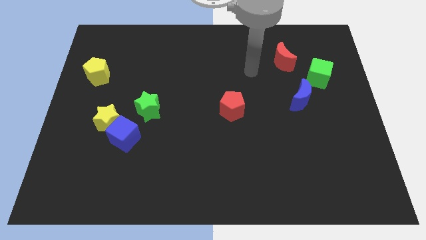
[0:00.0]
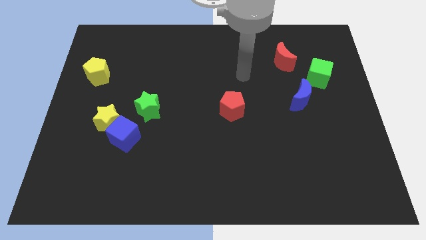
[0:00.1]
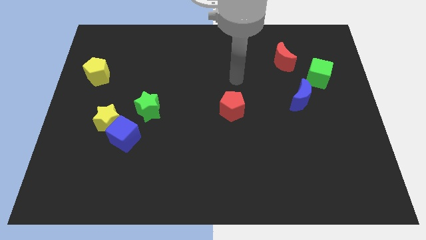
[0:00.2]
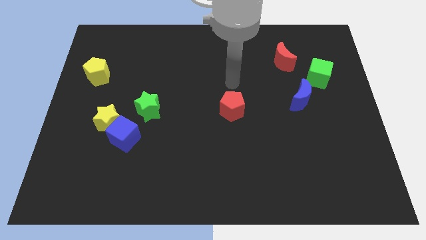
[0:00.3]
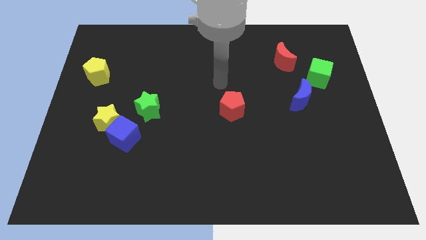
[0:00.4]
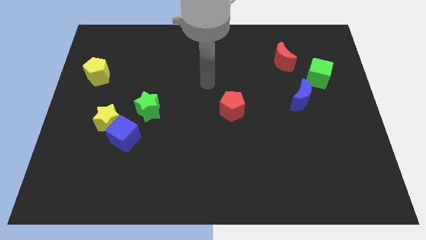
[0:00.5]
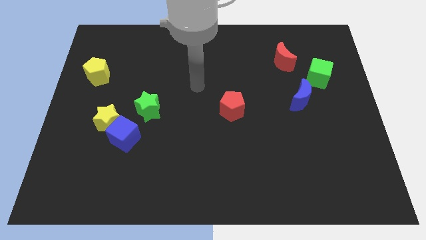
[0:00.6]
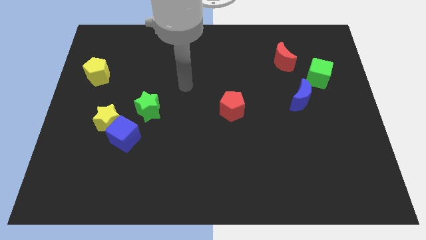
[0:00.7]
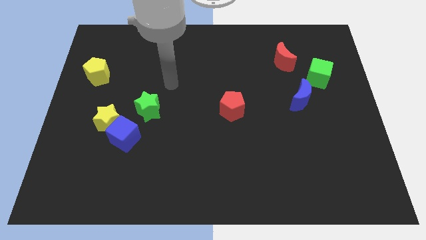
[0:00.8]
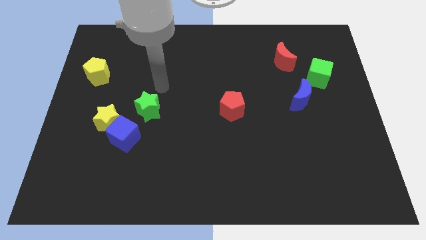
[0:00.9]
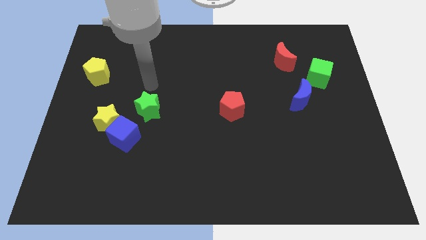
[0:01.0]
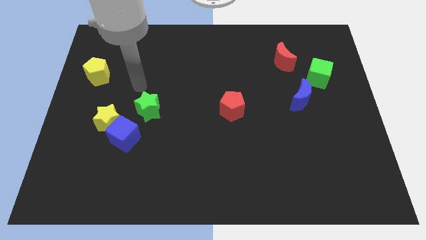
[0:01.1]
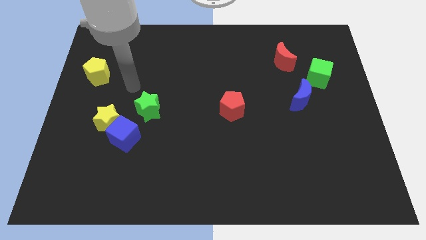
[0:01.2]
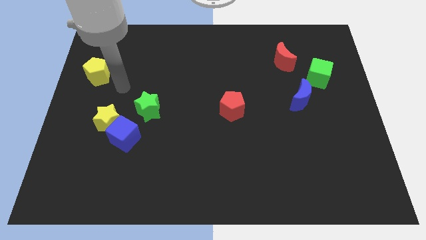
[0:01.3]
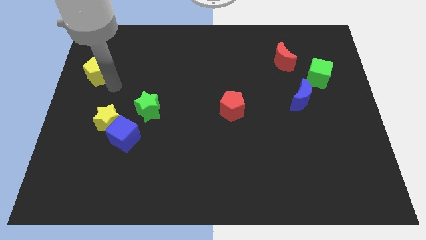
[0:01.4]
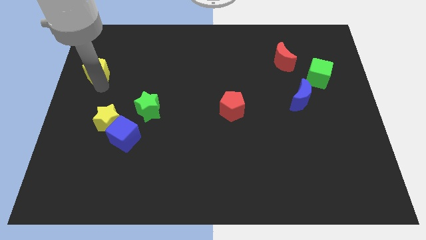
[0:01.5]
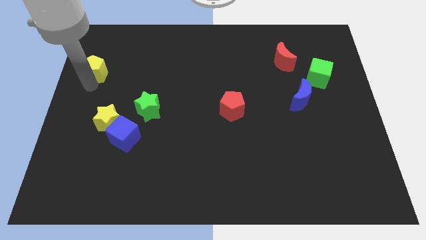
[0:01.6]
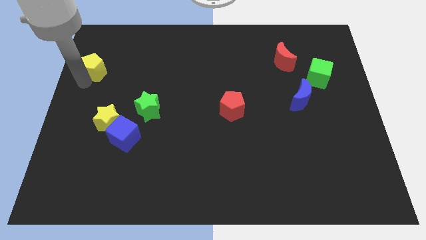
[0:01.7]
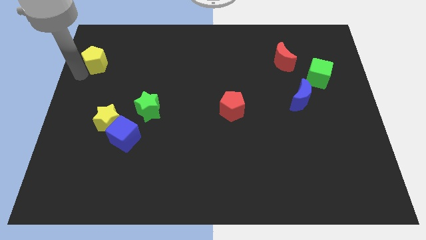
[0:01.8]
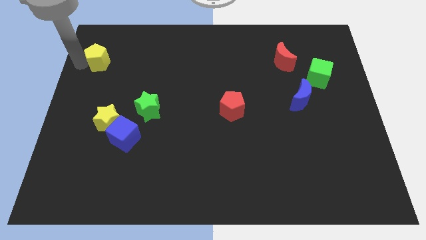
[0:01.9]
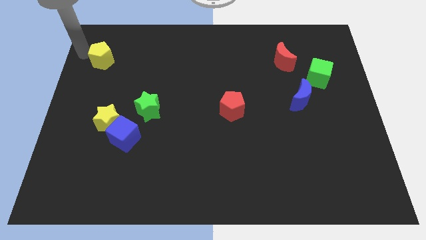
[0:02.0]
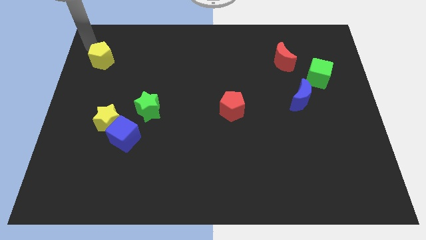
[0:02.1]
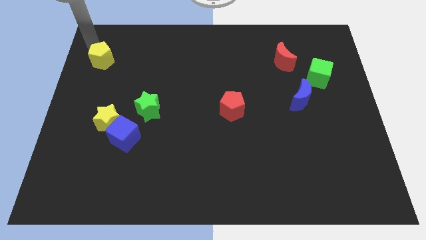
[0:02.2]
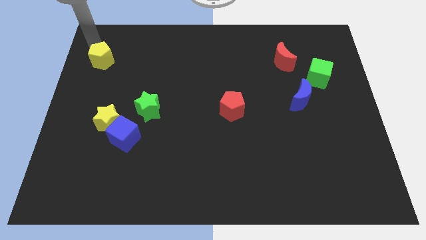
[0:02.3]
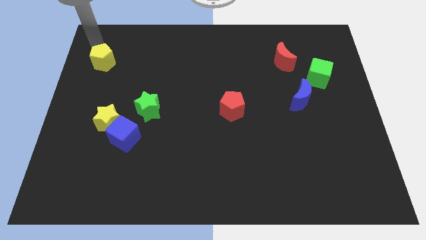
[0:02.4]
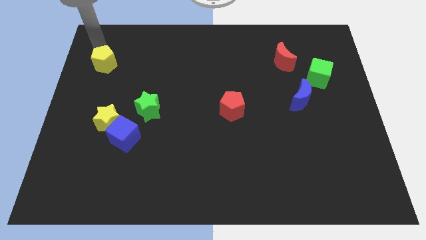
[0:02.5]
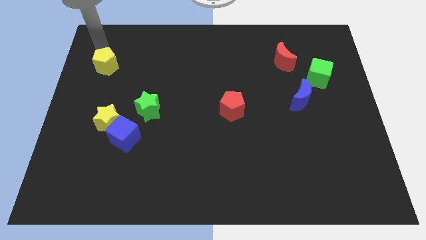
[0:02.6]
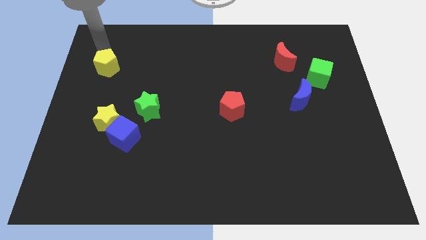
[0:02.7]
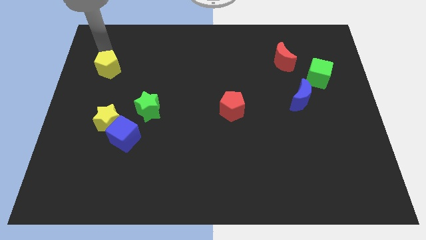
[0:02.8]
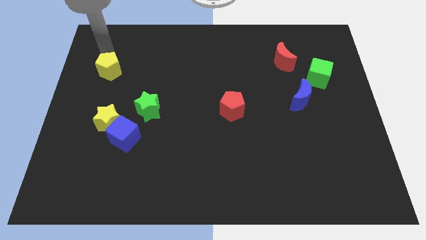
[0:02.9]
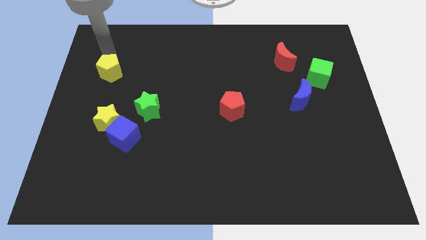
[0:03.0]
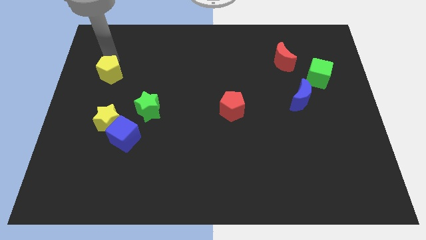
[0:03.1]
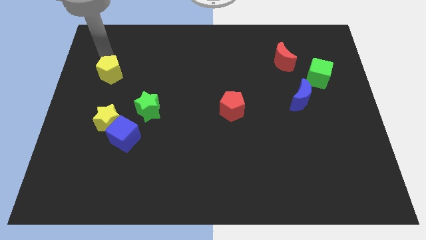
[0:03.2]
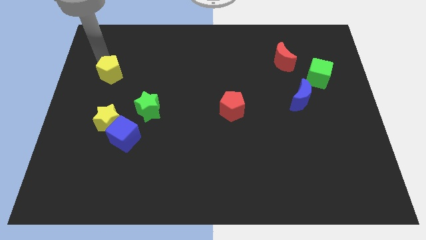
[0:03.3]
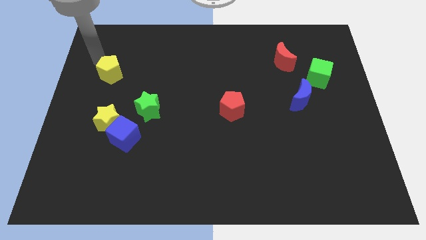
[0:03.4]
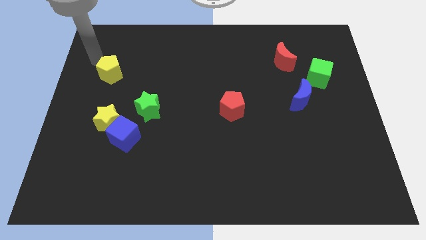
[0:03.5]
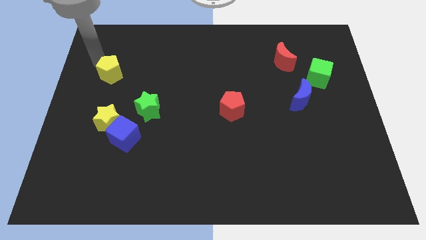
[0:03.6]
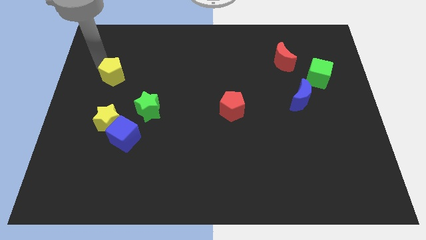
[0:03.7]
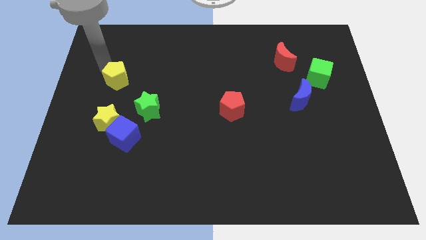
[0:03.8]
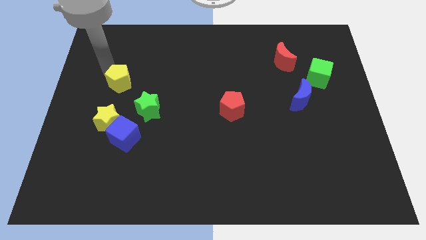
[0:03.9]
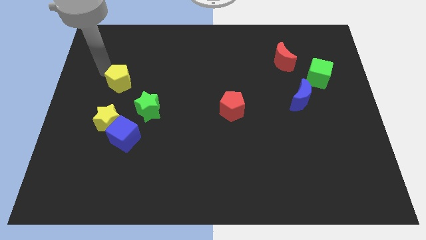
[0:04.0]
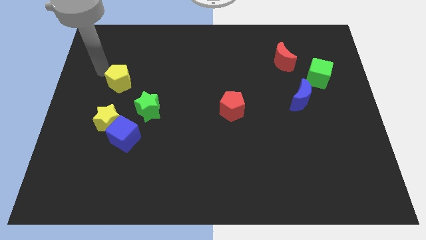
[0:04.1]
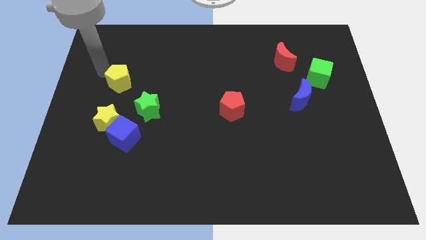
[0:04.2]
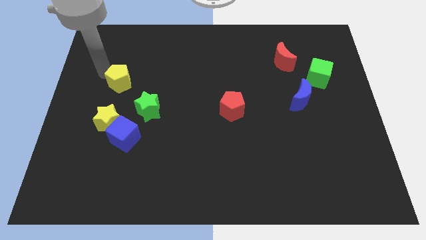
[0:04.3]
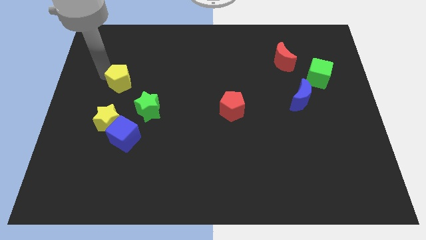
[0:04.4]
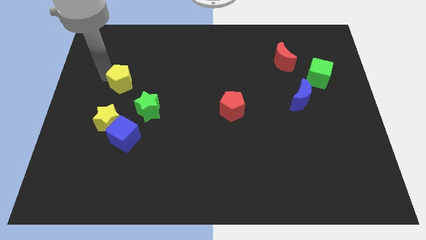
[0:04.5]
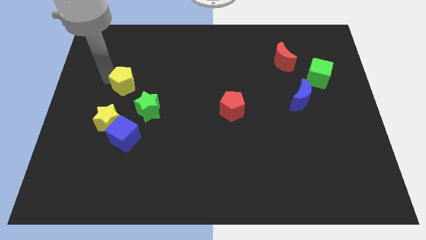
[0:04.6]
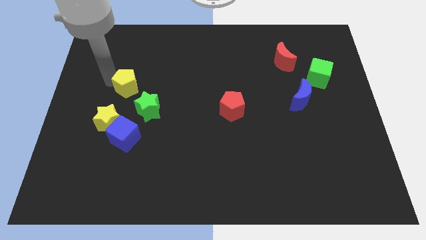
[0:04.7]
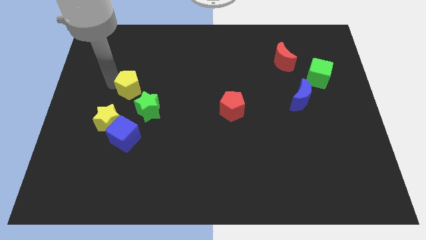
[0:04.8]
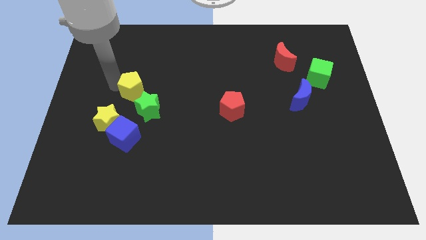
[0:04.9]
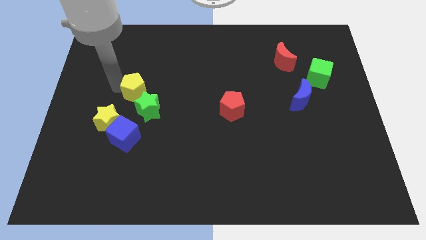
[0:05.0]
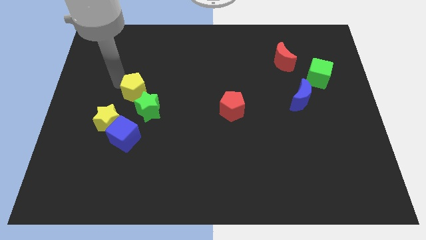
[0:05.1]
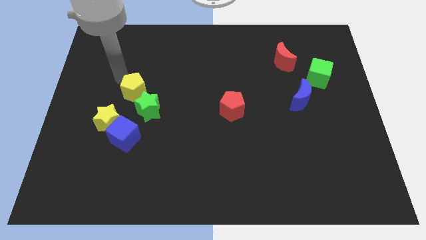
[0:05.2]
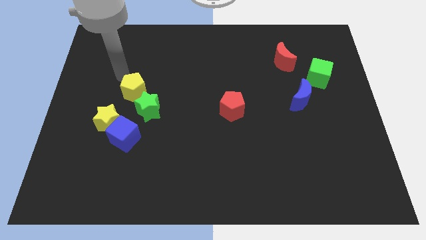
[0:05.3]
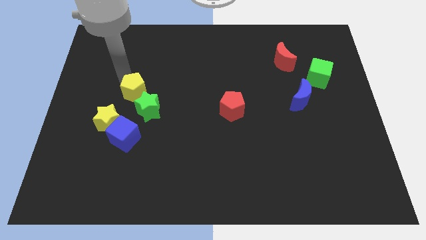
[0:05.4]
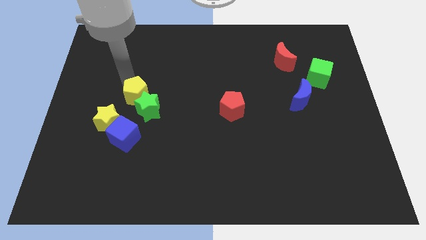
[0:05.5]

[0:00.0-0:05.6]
put the yellow pentagon towards the green star

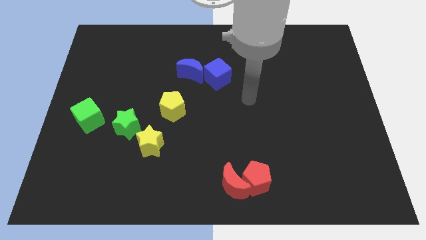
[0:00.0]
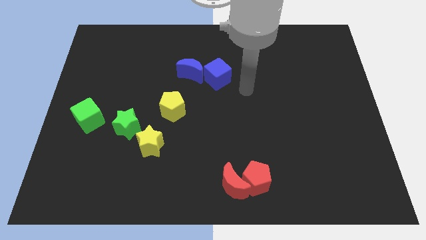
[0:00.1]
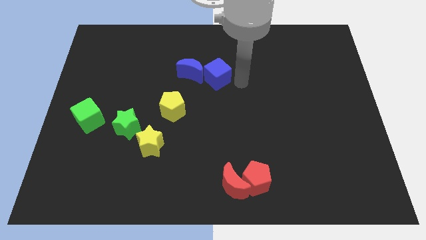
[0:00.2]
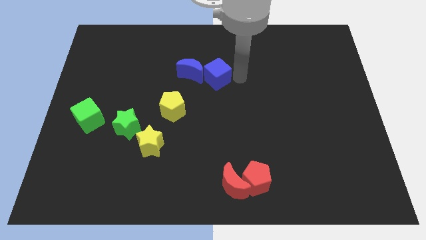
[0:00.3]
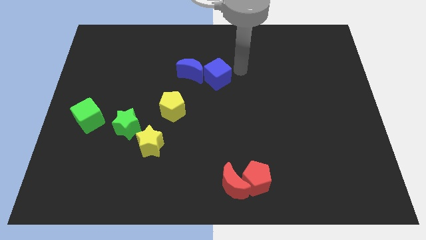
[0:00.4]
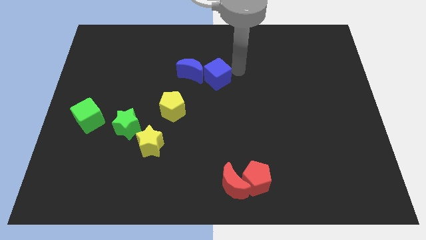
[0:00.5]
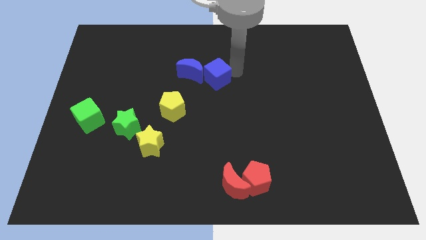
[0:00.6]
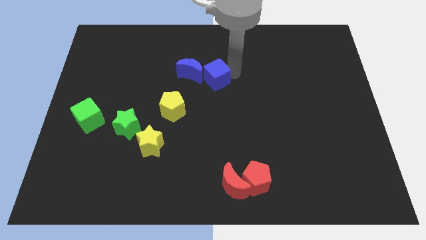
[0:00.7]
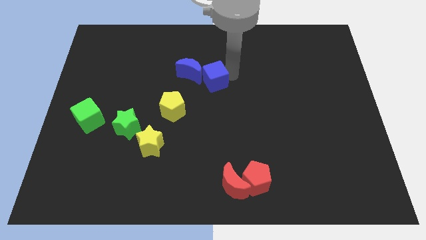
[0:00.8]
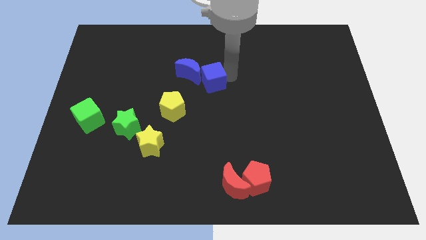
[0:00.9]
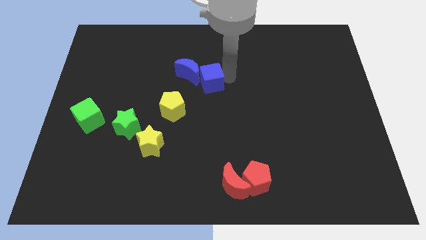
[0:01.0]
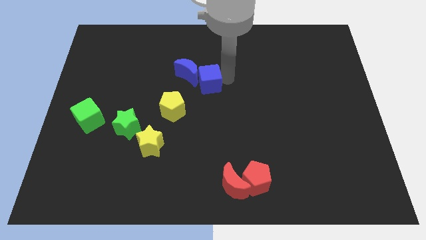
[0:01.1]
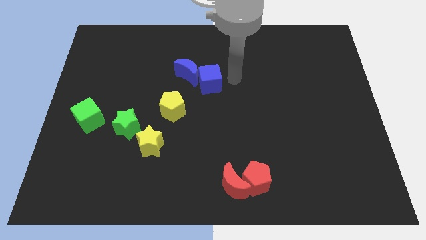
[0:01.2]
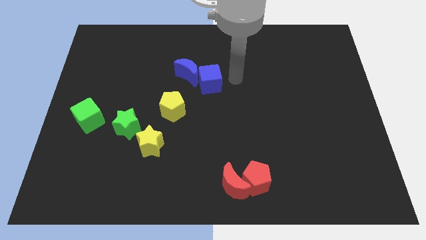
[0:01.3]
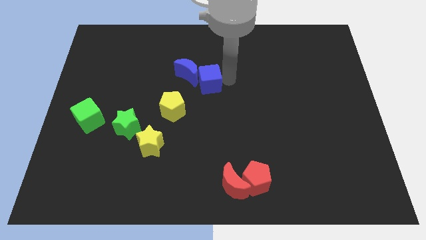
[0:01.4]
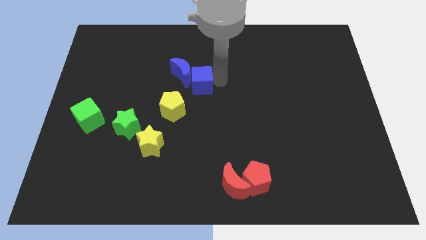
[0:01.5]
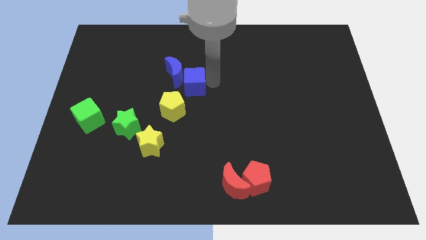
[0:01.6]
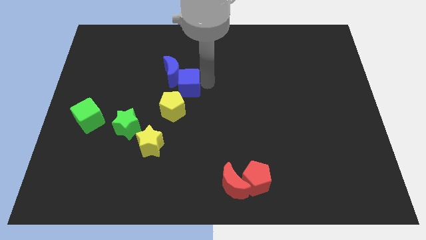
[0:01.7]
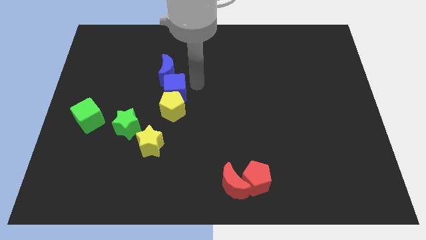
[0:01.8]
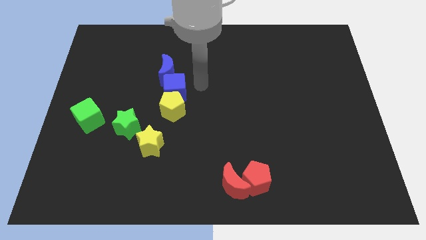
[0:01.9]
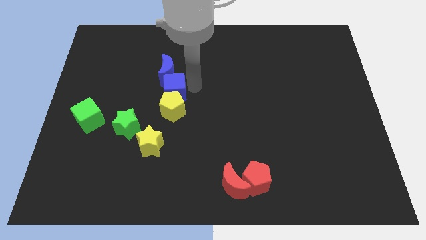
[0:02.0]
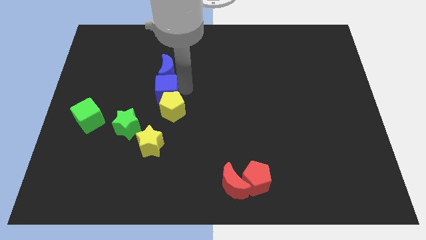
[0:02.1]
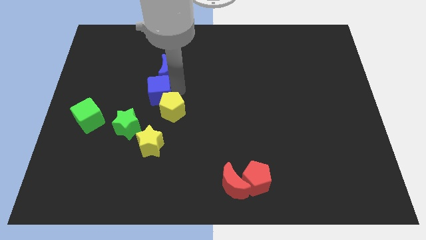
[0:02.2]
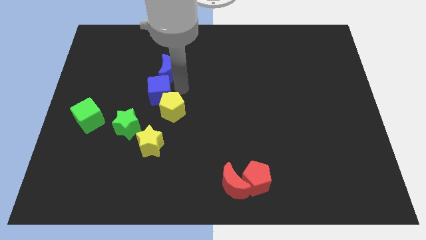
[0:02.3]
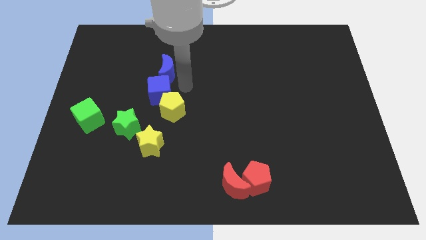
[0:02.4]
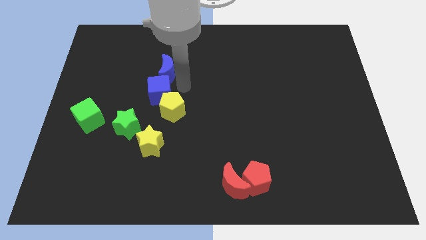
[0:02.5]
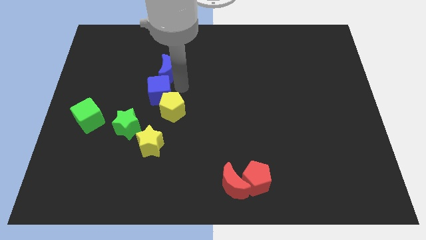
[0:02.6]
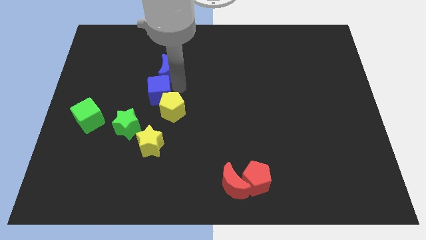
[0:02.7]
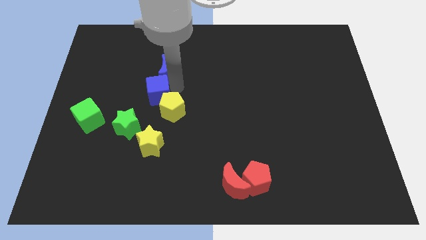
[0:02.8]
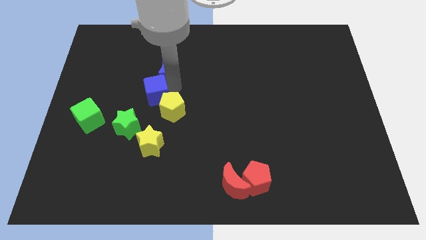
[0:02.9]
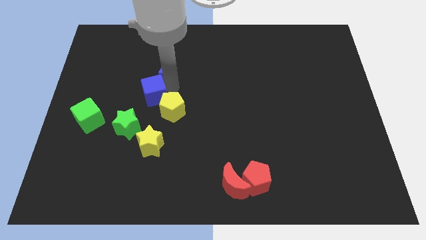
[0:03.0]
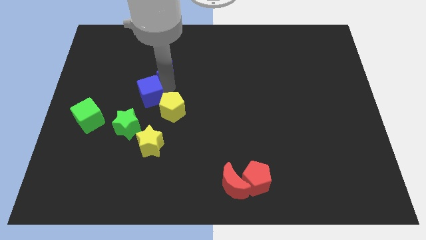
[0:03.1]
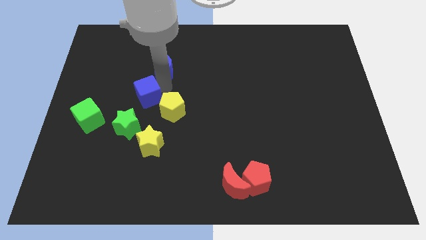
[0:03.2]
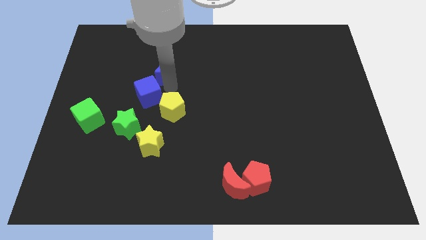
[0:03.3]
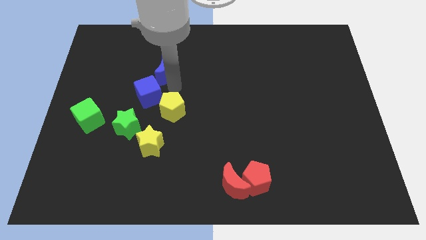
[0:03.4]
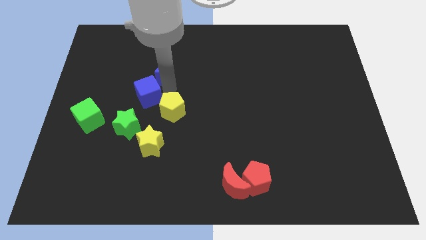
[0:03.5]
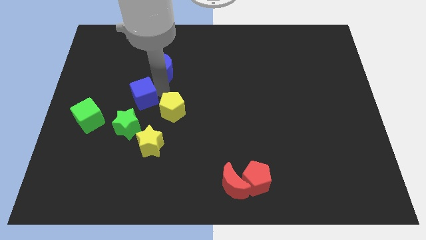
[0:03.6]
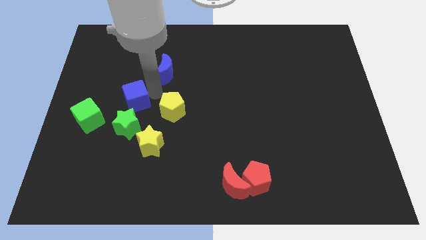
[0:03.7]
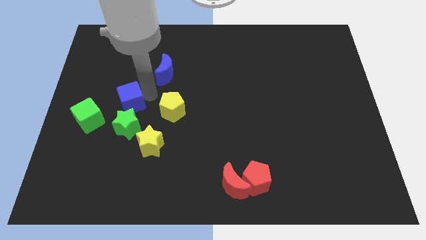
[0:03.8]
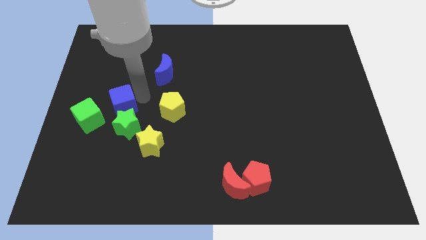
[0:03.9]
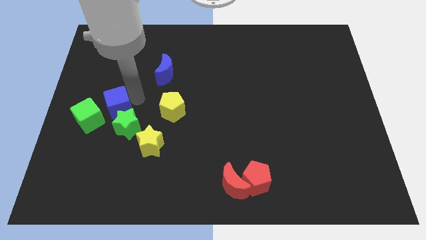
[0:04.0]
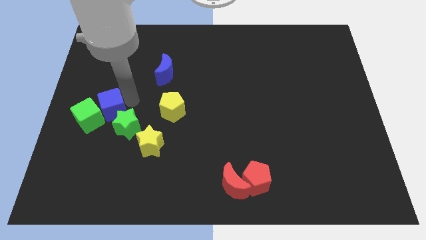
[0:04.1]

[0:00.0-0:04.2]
put the blue cube to the green cube
